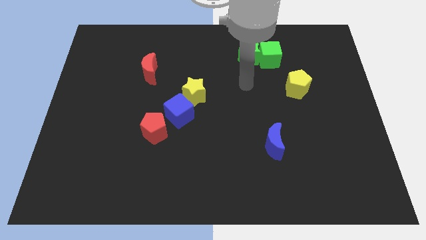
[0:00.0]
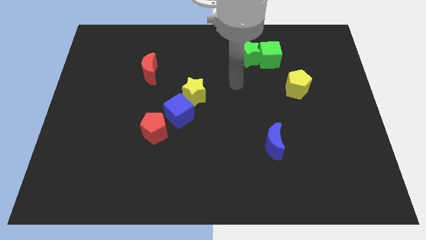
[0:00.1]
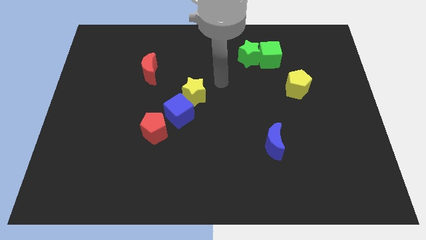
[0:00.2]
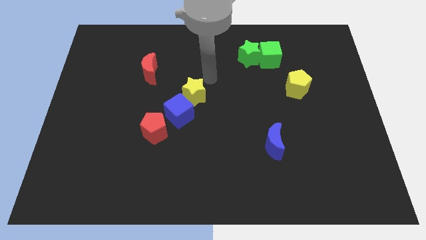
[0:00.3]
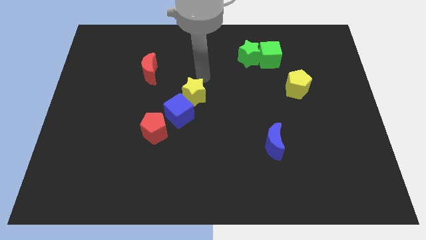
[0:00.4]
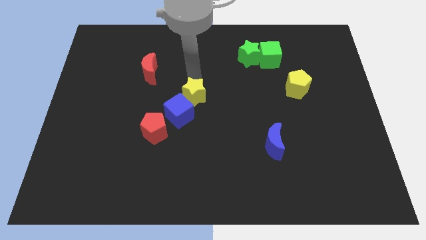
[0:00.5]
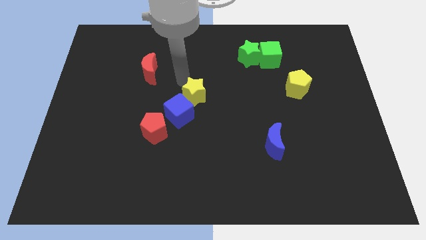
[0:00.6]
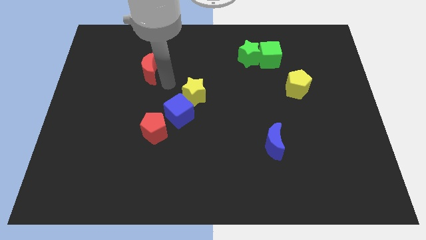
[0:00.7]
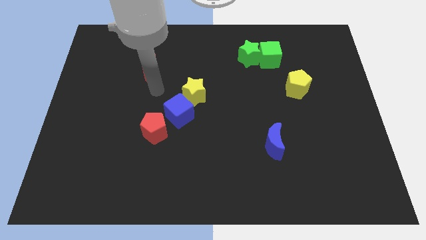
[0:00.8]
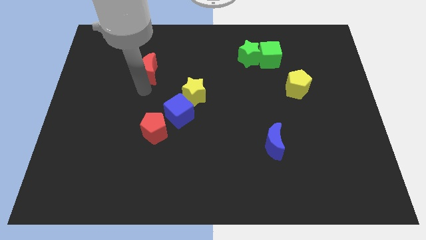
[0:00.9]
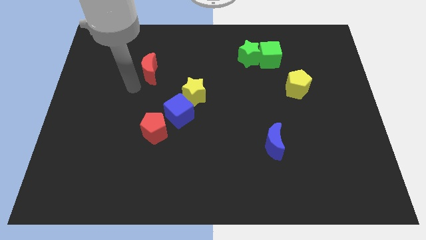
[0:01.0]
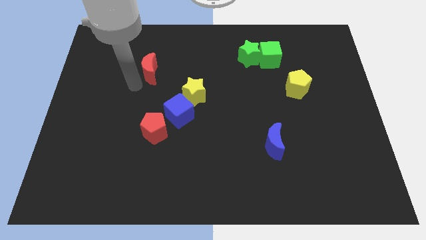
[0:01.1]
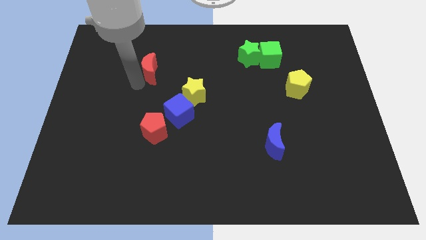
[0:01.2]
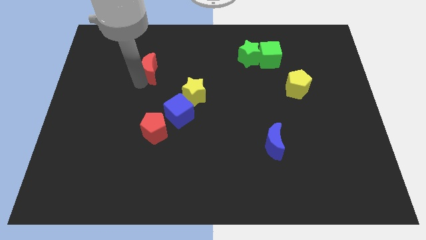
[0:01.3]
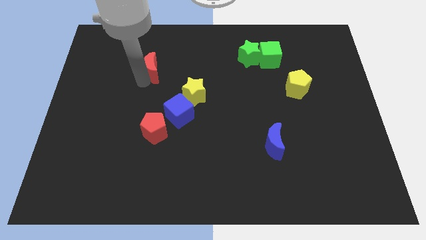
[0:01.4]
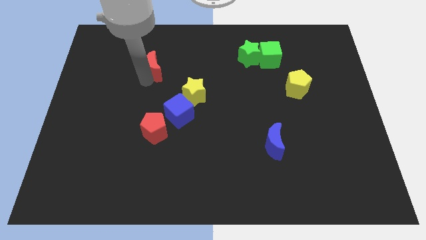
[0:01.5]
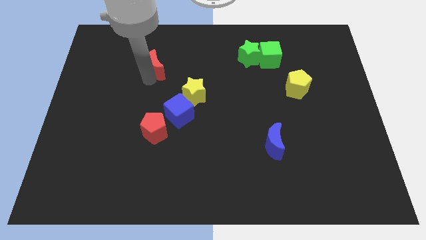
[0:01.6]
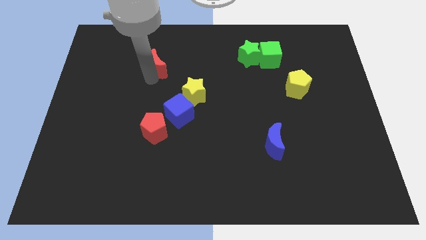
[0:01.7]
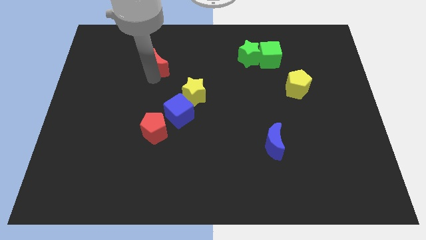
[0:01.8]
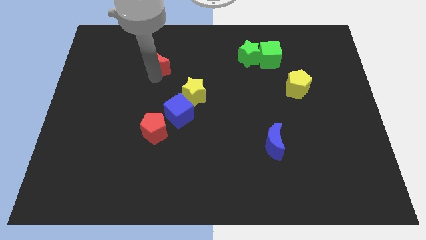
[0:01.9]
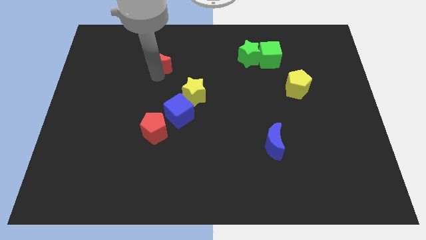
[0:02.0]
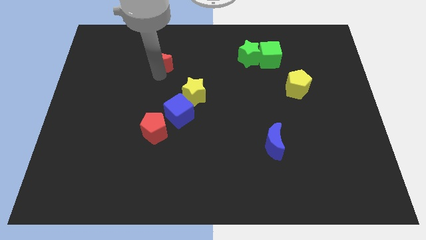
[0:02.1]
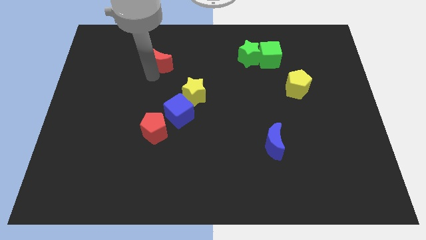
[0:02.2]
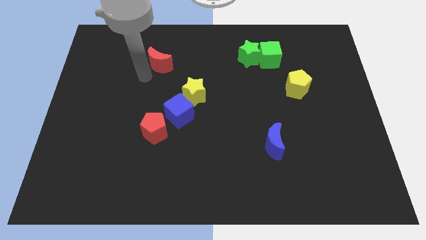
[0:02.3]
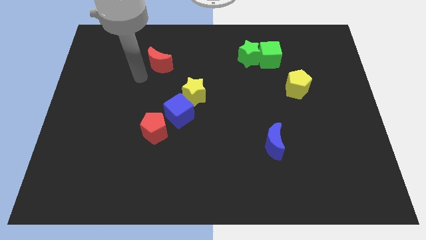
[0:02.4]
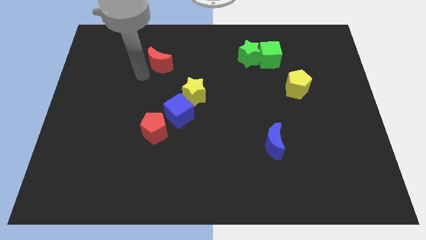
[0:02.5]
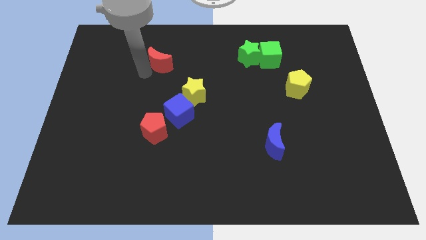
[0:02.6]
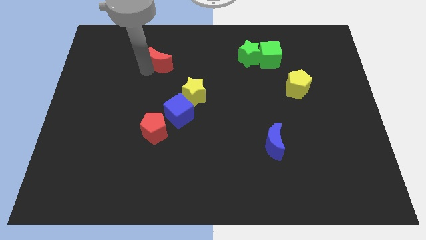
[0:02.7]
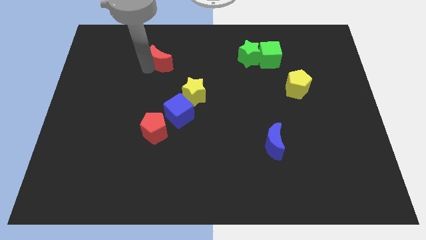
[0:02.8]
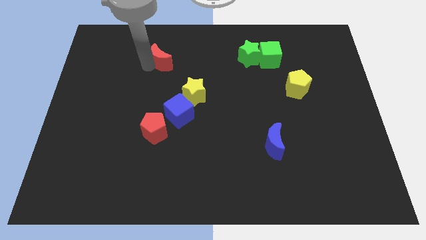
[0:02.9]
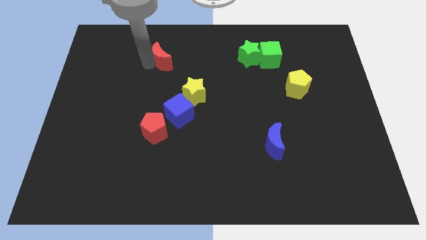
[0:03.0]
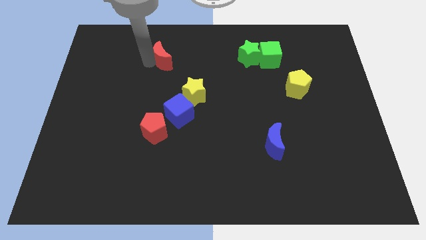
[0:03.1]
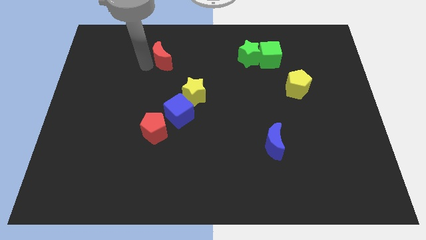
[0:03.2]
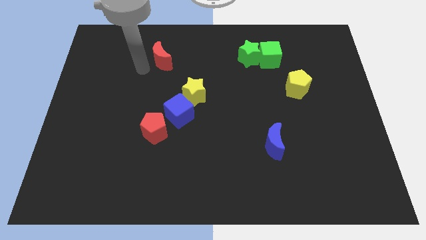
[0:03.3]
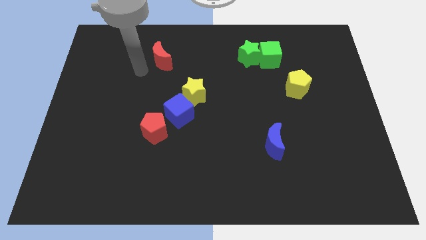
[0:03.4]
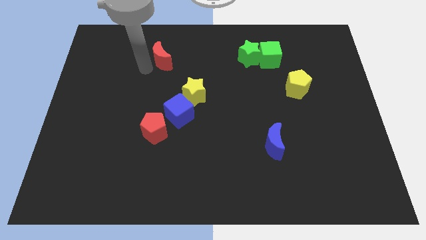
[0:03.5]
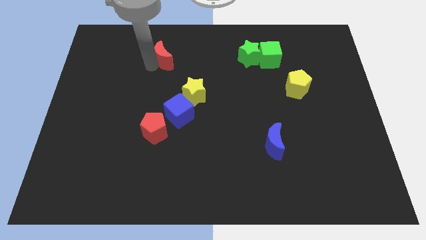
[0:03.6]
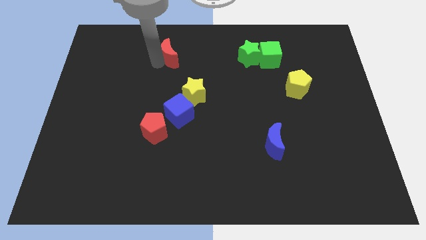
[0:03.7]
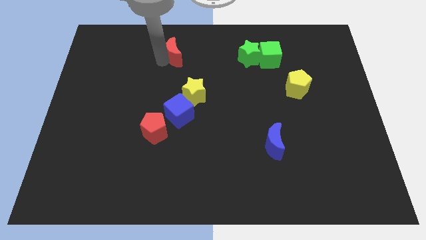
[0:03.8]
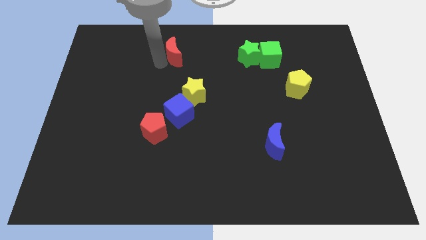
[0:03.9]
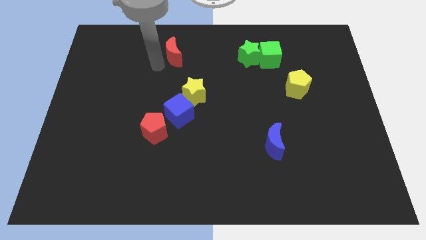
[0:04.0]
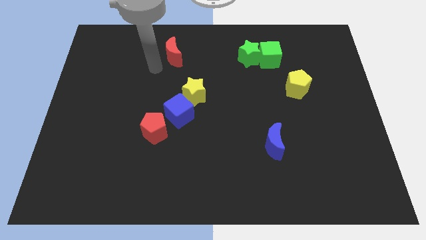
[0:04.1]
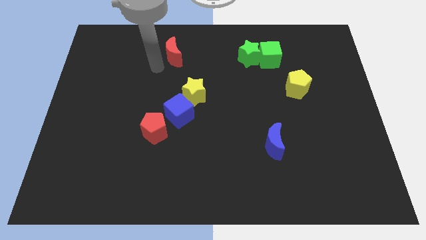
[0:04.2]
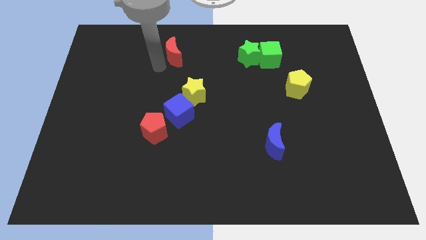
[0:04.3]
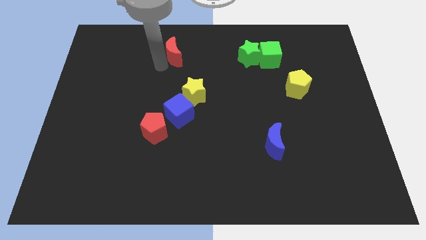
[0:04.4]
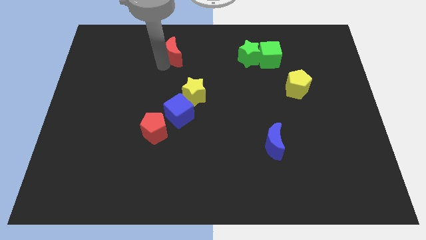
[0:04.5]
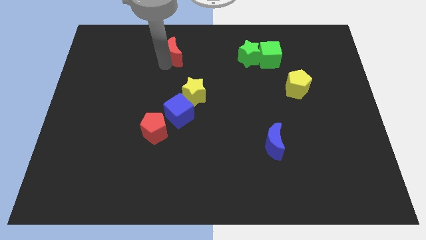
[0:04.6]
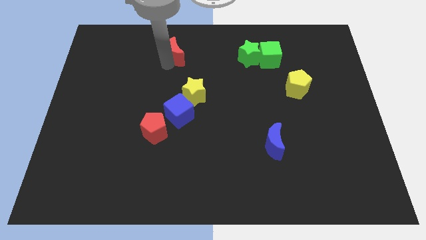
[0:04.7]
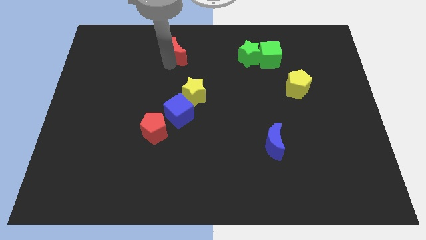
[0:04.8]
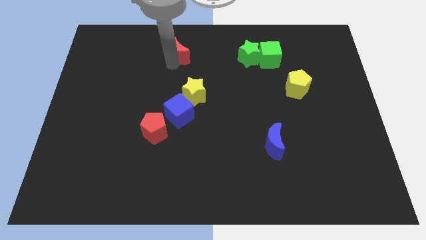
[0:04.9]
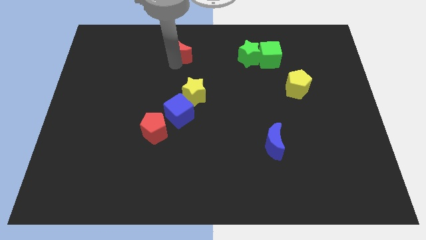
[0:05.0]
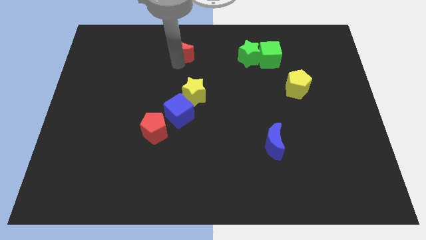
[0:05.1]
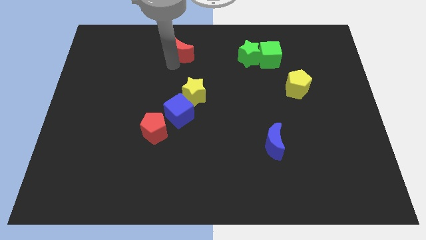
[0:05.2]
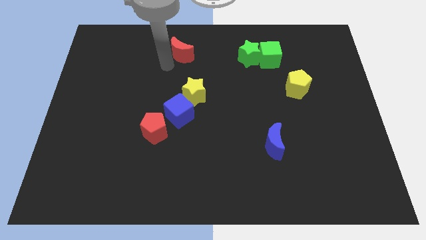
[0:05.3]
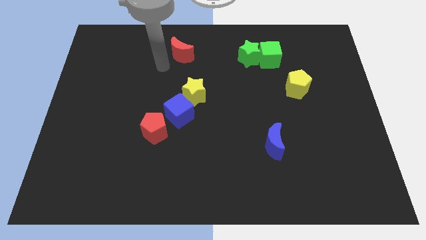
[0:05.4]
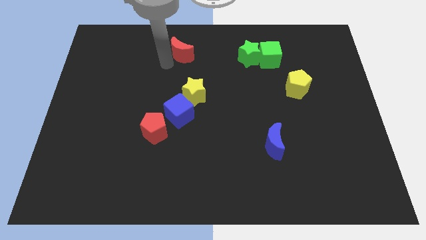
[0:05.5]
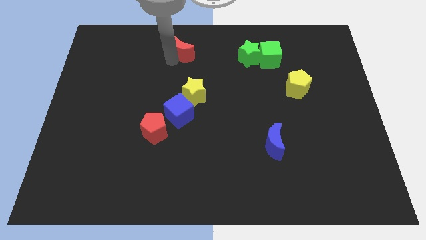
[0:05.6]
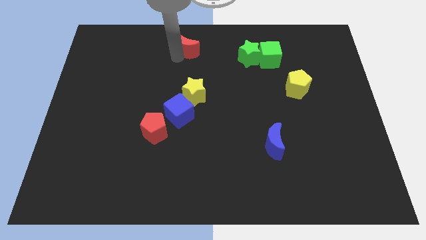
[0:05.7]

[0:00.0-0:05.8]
push the red moon to the towards your base
